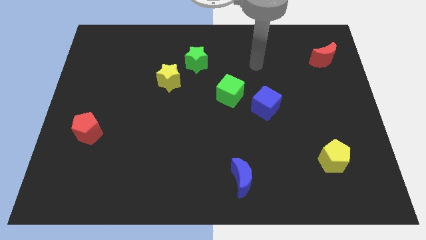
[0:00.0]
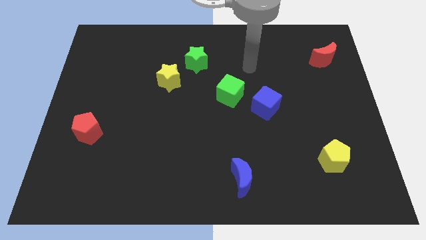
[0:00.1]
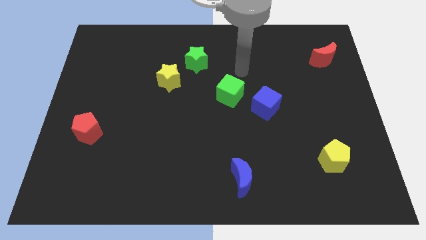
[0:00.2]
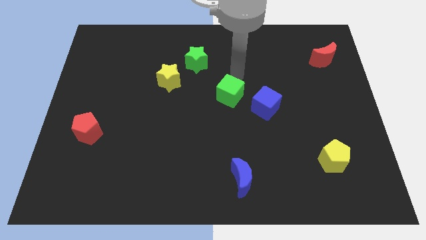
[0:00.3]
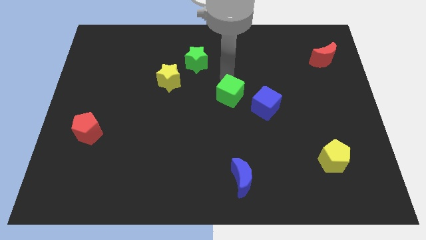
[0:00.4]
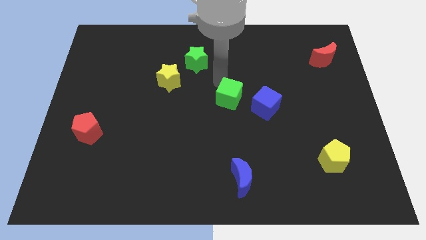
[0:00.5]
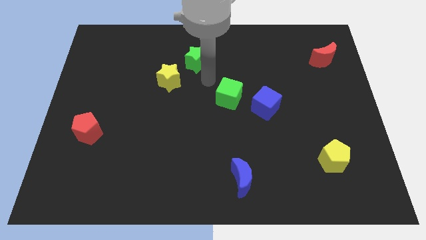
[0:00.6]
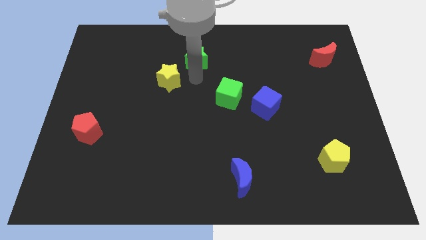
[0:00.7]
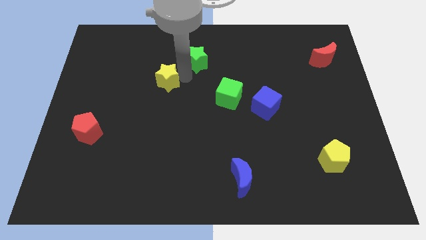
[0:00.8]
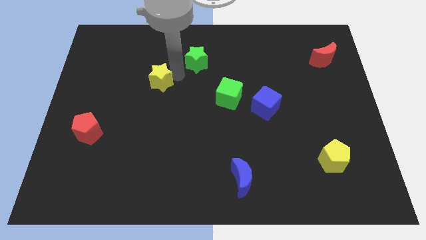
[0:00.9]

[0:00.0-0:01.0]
separate the green star from the yellow star

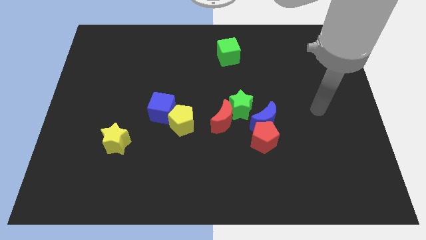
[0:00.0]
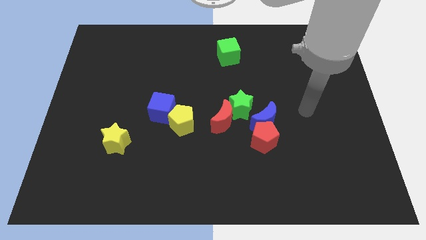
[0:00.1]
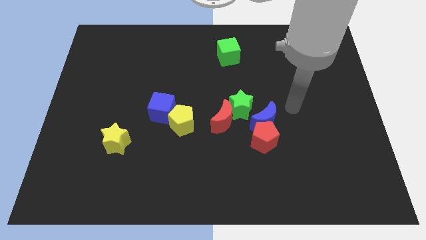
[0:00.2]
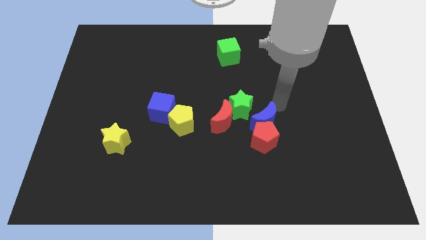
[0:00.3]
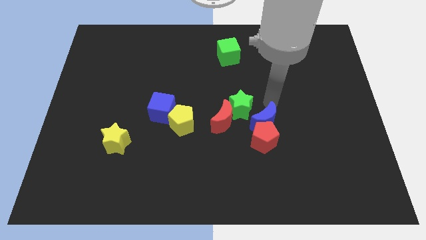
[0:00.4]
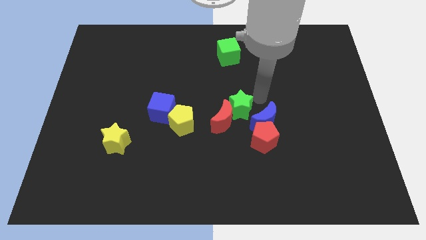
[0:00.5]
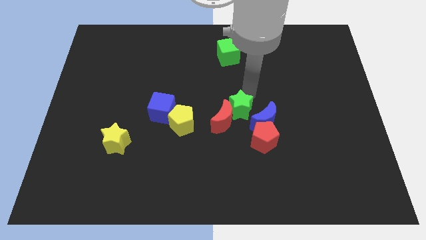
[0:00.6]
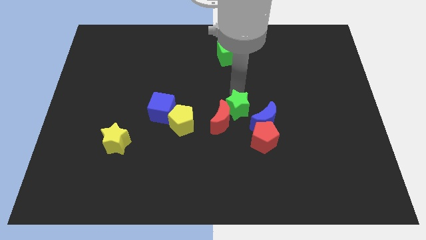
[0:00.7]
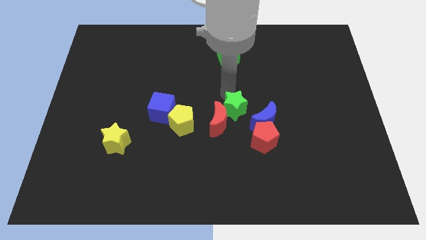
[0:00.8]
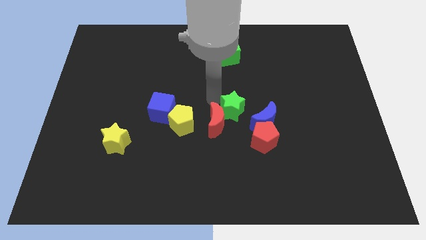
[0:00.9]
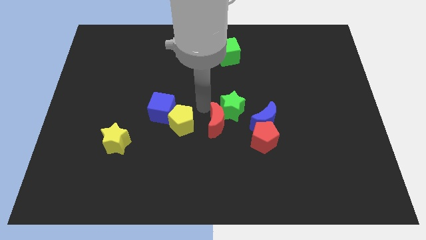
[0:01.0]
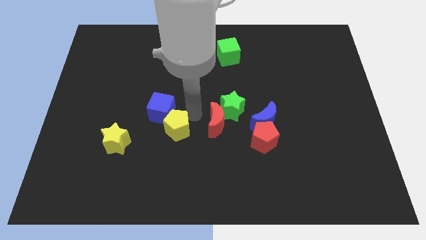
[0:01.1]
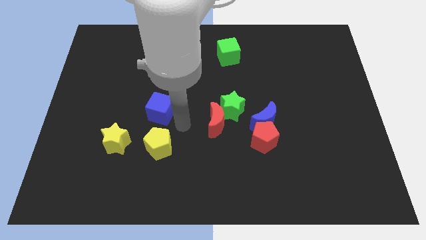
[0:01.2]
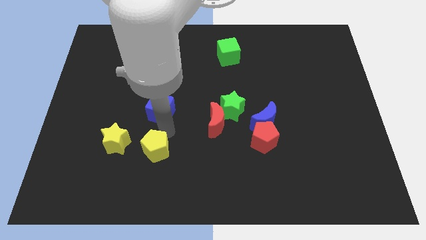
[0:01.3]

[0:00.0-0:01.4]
separate the blue cube from the yellow pentagon

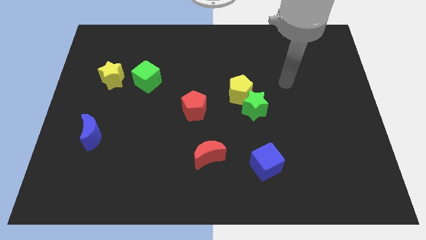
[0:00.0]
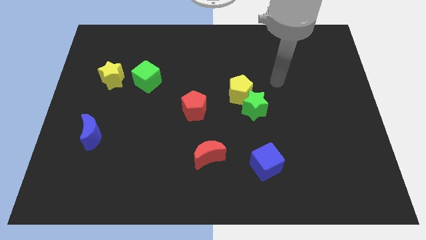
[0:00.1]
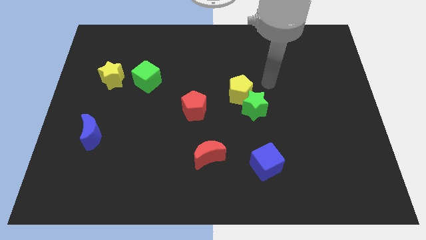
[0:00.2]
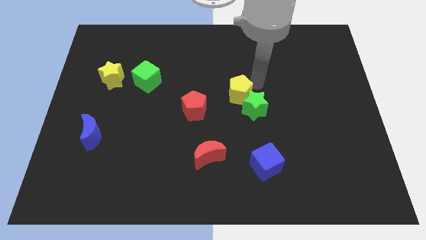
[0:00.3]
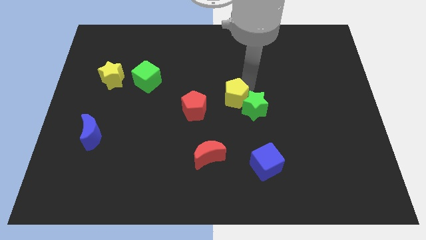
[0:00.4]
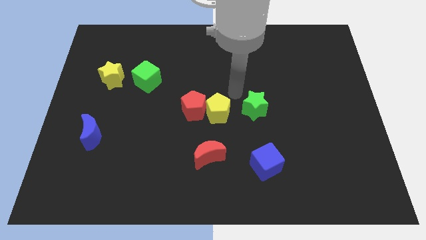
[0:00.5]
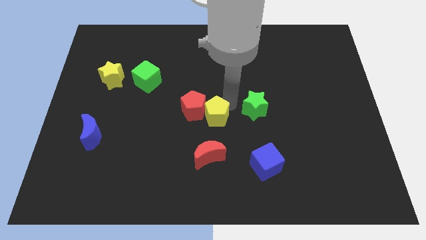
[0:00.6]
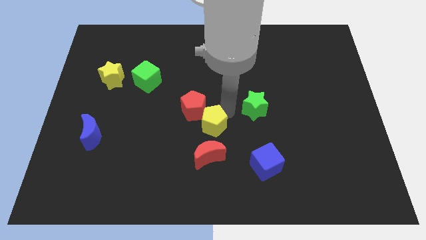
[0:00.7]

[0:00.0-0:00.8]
move the green star away from the yellow pentagon

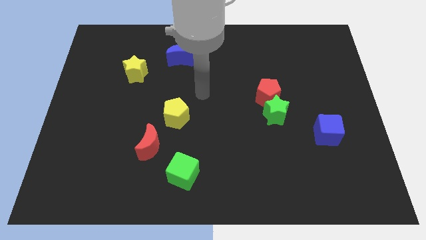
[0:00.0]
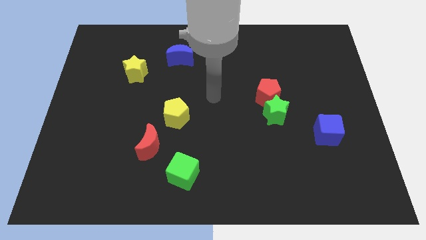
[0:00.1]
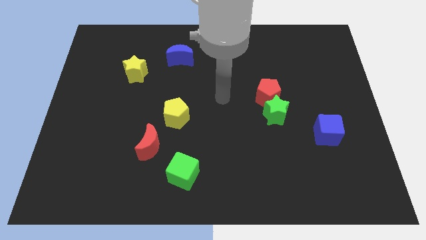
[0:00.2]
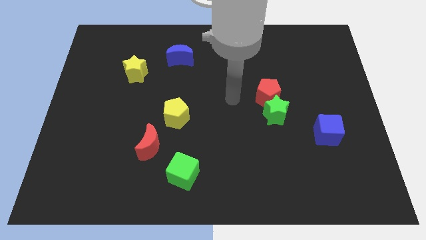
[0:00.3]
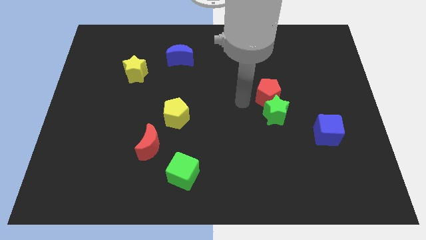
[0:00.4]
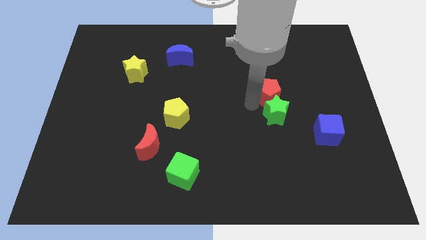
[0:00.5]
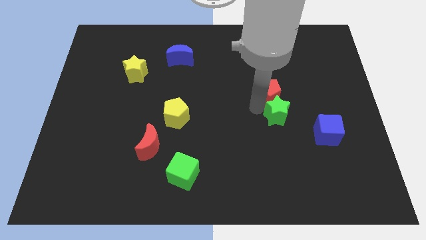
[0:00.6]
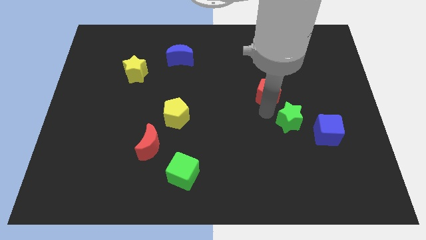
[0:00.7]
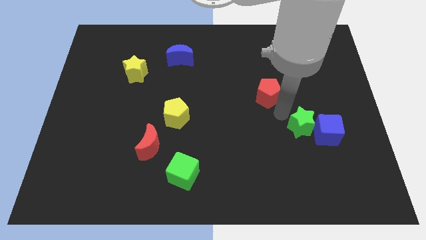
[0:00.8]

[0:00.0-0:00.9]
move the red pentagon away from the green star

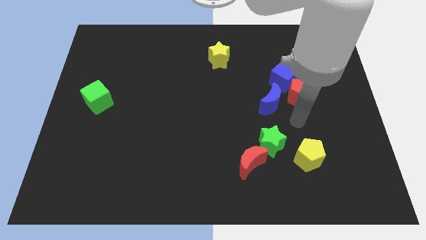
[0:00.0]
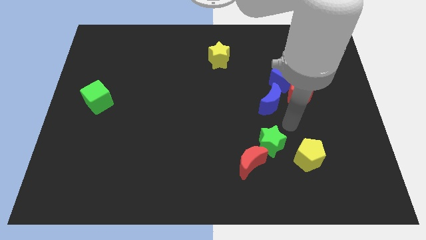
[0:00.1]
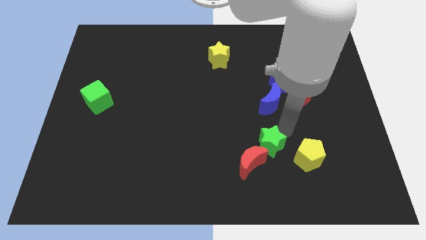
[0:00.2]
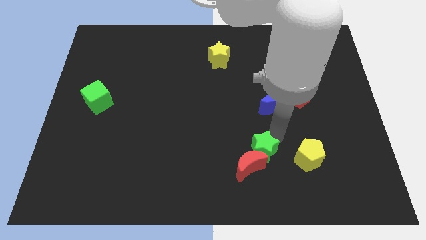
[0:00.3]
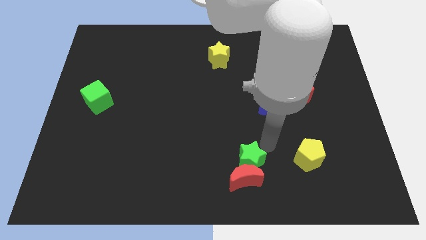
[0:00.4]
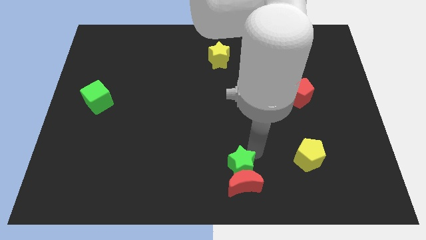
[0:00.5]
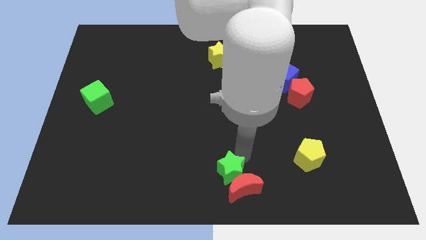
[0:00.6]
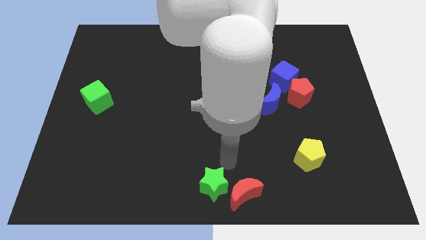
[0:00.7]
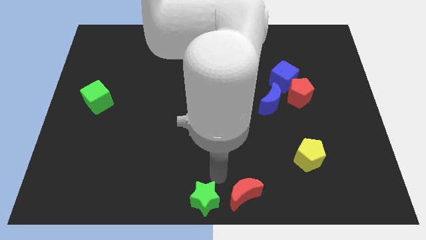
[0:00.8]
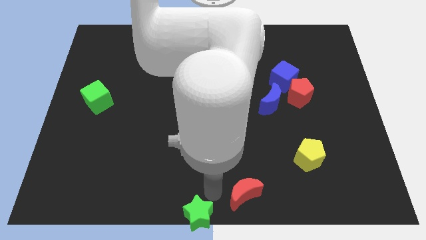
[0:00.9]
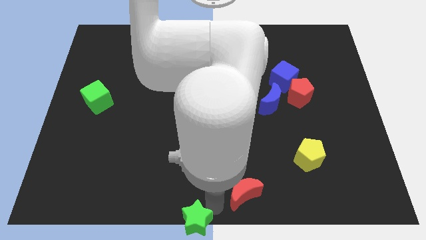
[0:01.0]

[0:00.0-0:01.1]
pull the red moon apart from the green star

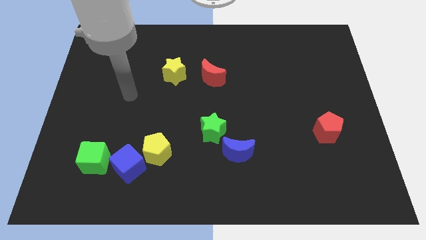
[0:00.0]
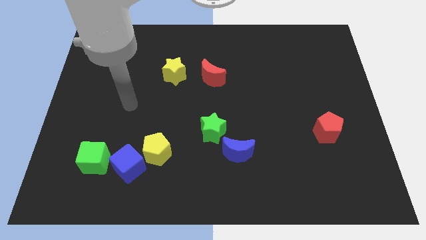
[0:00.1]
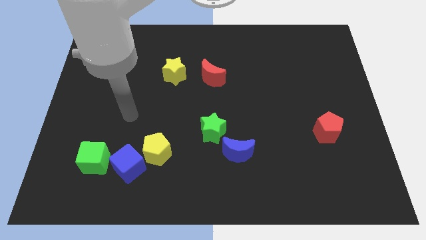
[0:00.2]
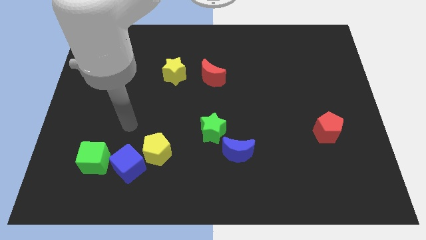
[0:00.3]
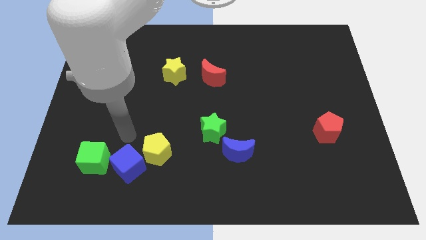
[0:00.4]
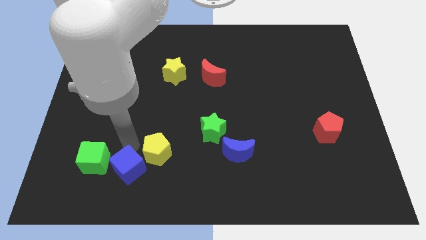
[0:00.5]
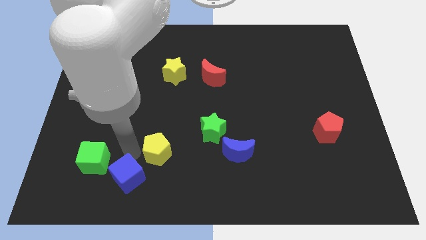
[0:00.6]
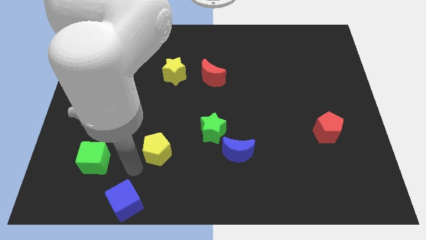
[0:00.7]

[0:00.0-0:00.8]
move the yellow pentagon away from the blue cube

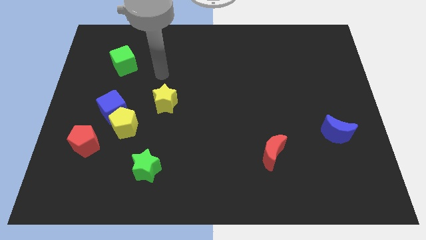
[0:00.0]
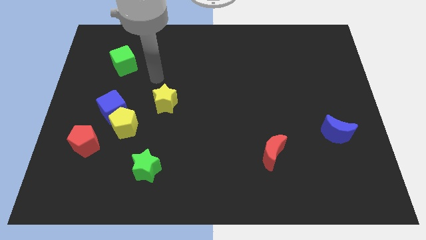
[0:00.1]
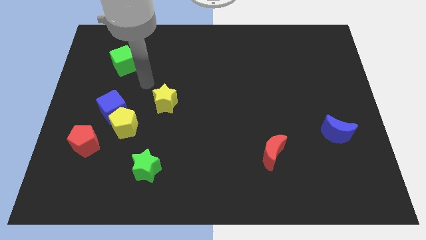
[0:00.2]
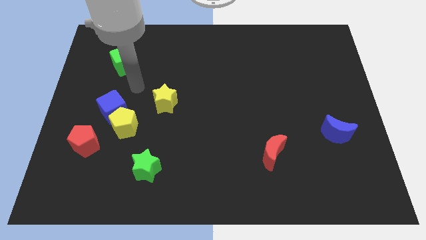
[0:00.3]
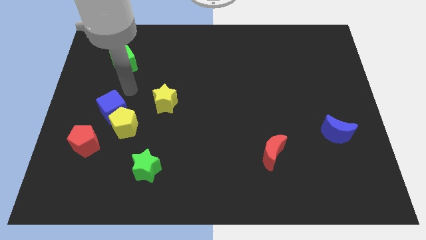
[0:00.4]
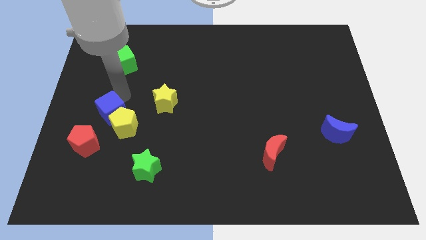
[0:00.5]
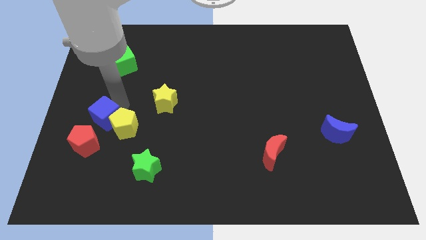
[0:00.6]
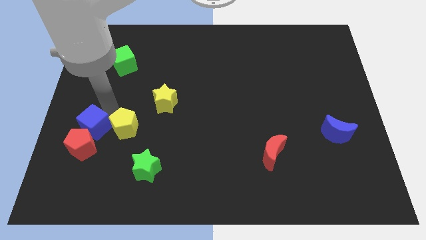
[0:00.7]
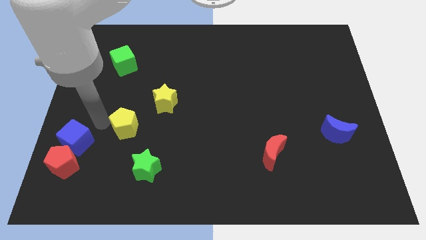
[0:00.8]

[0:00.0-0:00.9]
separate the yellow pentagon from the blue cube and red pentagon

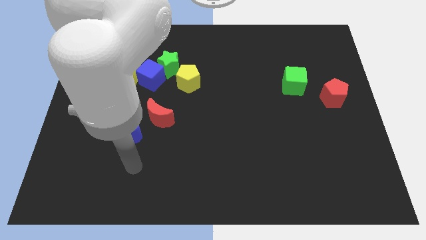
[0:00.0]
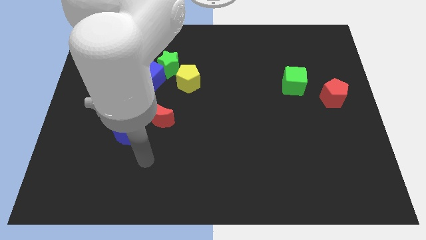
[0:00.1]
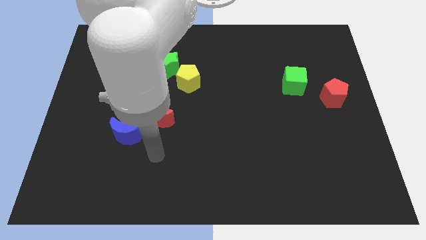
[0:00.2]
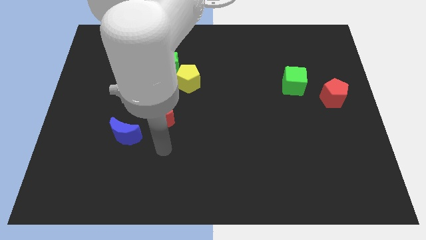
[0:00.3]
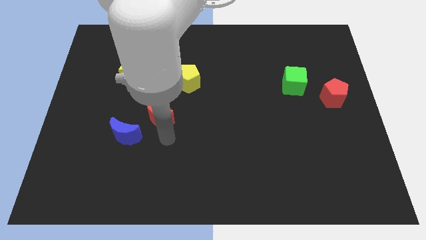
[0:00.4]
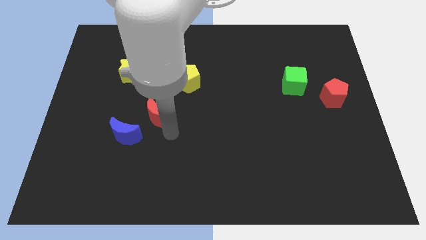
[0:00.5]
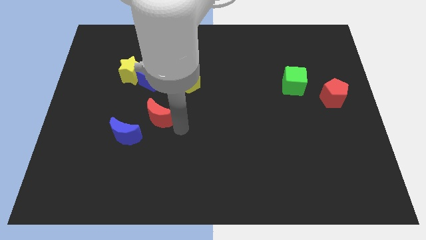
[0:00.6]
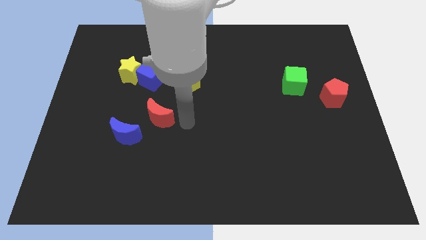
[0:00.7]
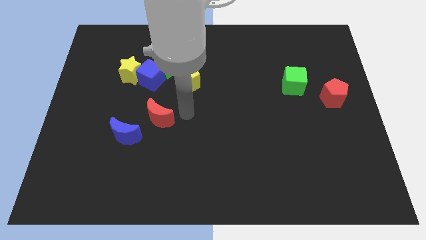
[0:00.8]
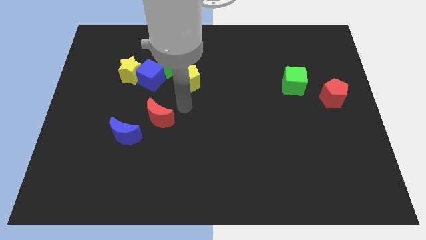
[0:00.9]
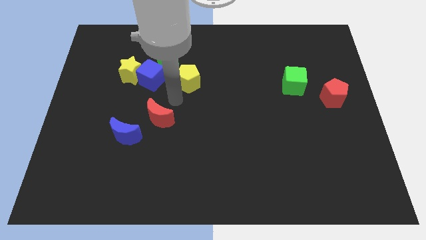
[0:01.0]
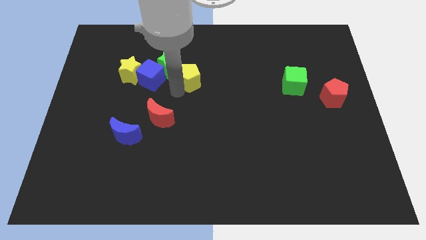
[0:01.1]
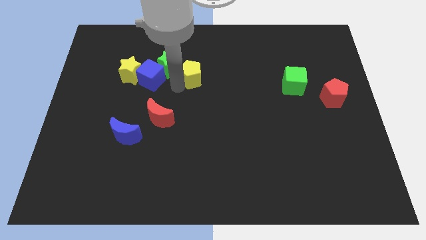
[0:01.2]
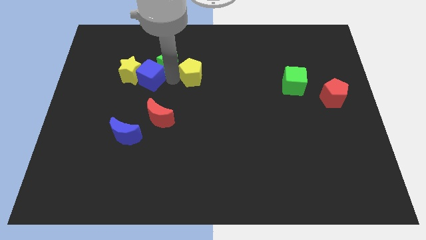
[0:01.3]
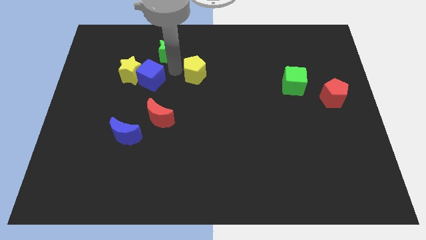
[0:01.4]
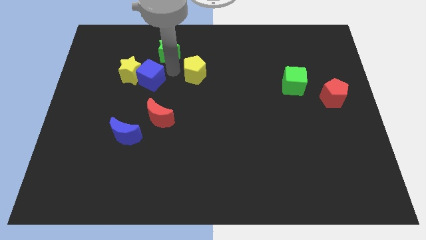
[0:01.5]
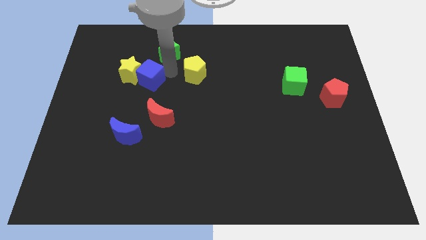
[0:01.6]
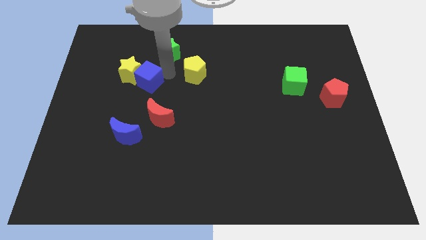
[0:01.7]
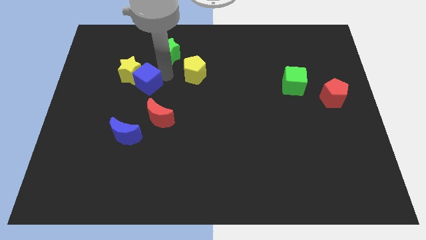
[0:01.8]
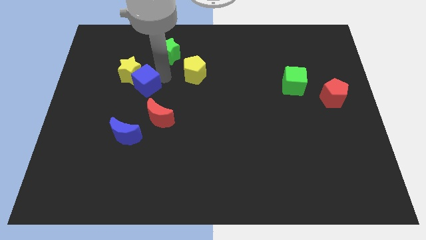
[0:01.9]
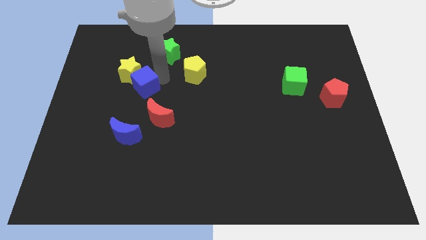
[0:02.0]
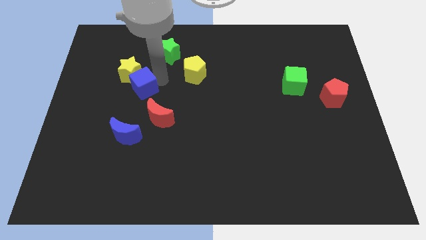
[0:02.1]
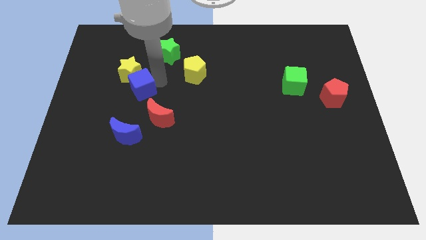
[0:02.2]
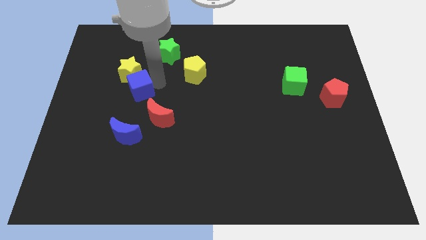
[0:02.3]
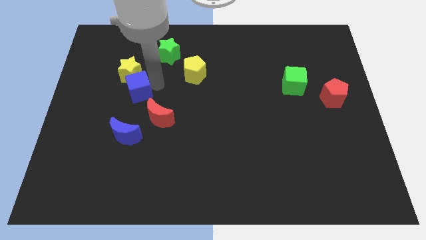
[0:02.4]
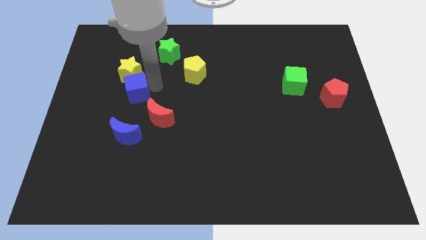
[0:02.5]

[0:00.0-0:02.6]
pull the blue cube apart from the green star, yellow star, and yellow pentagon
